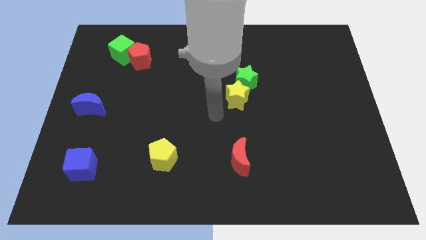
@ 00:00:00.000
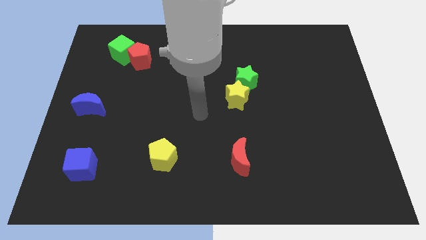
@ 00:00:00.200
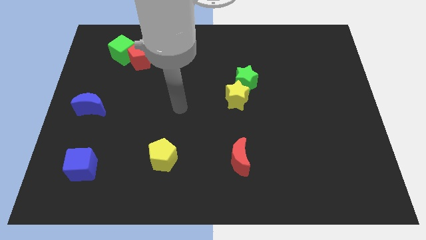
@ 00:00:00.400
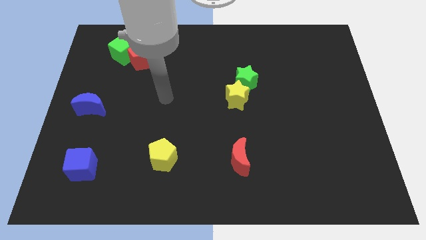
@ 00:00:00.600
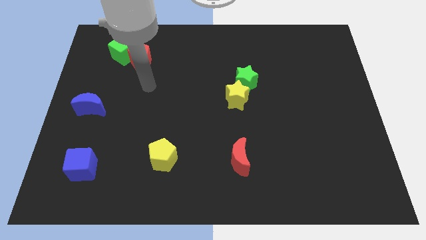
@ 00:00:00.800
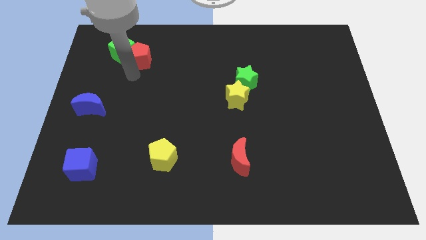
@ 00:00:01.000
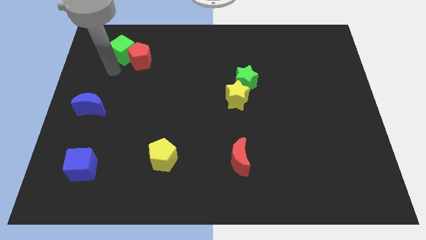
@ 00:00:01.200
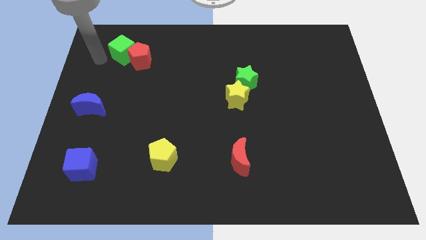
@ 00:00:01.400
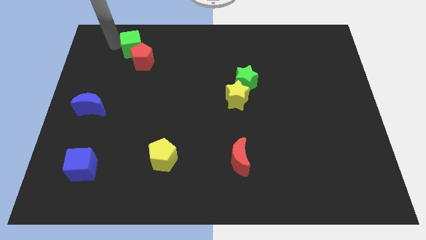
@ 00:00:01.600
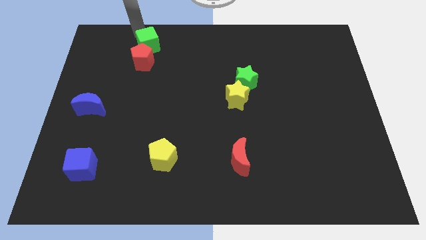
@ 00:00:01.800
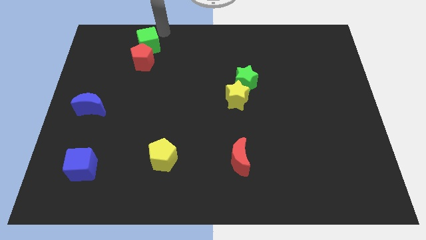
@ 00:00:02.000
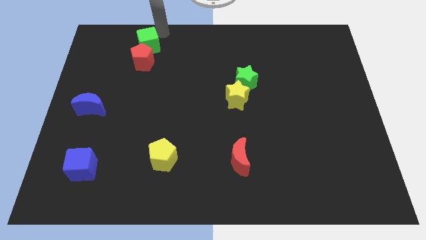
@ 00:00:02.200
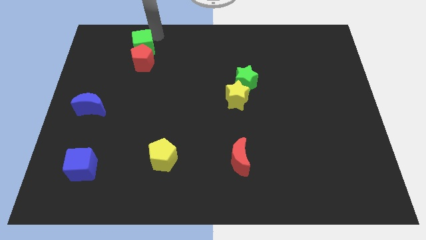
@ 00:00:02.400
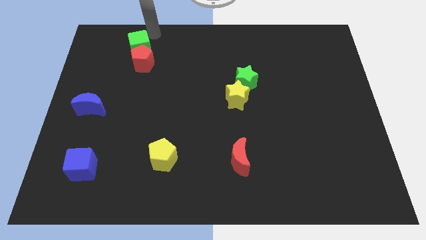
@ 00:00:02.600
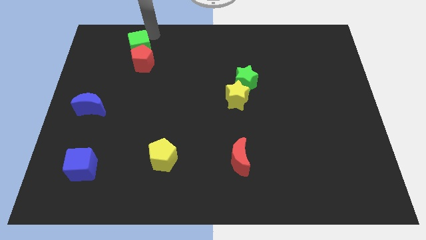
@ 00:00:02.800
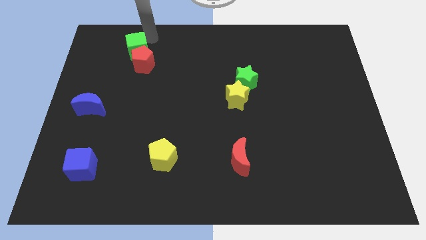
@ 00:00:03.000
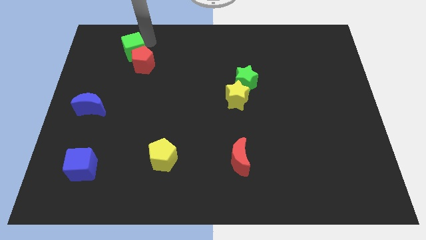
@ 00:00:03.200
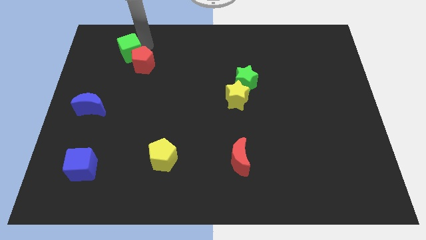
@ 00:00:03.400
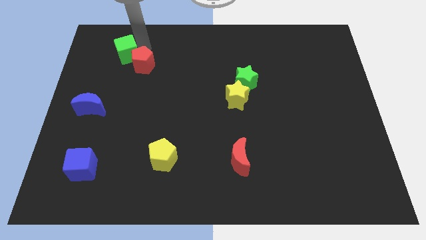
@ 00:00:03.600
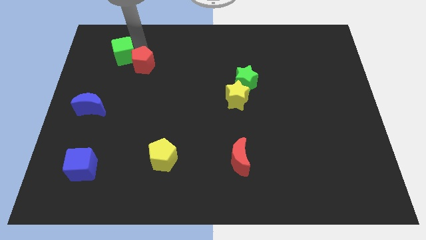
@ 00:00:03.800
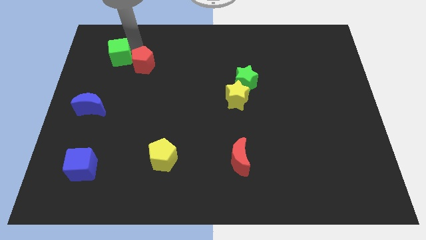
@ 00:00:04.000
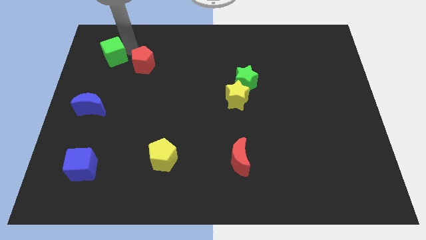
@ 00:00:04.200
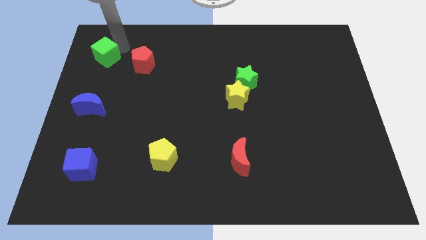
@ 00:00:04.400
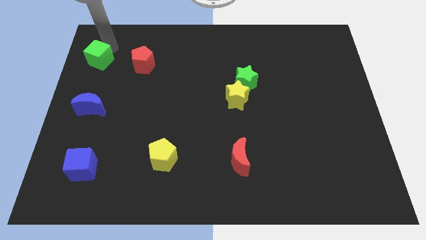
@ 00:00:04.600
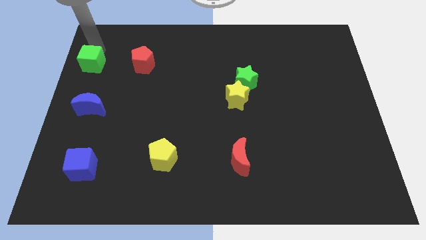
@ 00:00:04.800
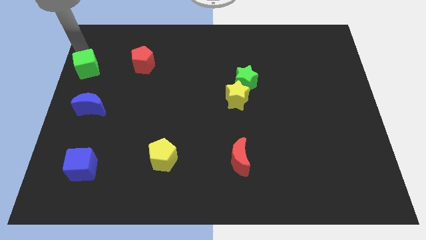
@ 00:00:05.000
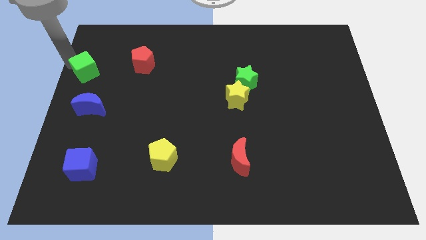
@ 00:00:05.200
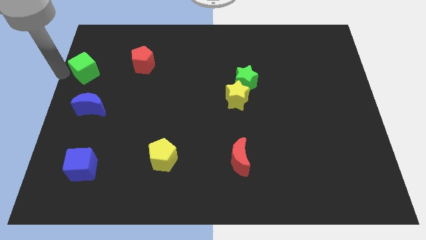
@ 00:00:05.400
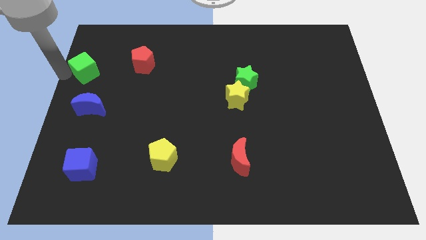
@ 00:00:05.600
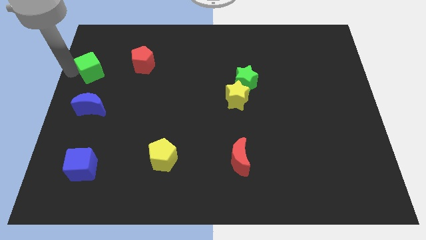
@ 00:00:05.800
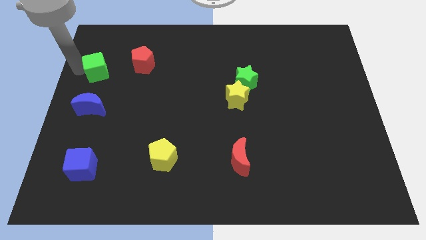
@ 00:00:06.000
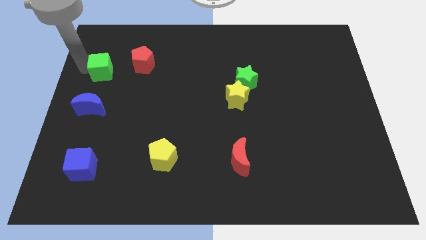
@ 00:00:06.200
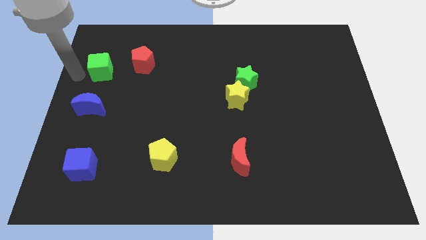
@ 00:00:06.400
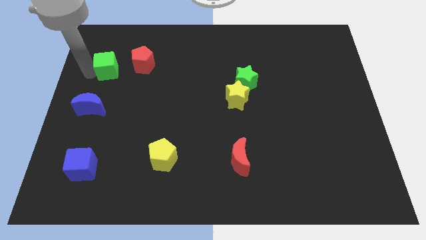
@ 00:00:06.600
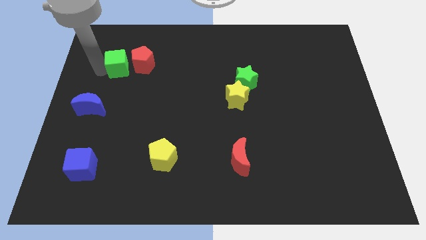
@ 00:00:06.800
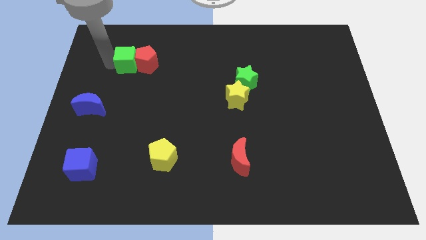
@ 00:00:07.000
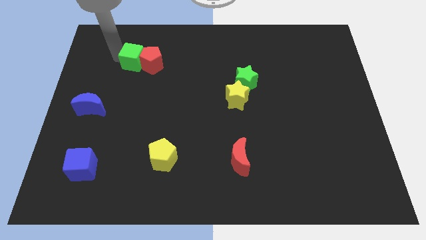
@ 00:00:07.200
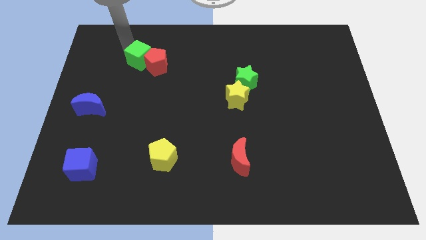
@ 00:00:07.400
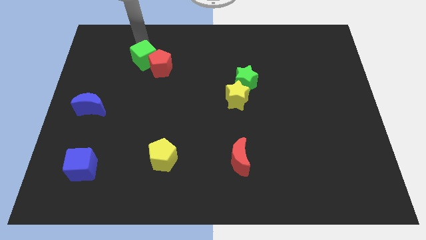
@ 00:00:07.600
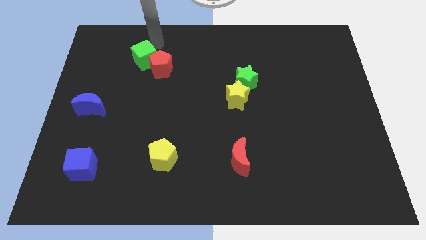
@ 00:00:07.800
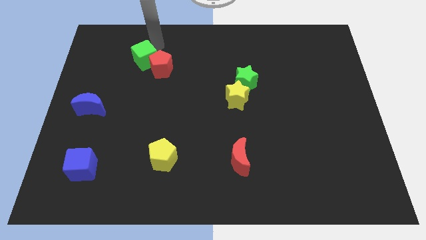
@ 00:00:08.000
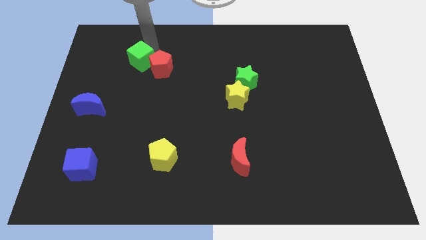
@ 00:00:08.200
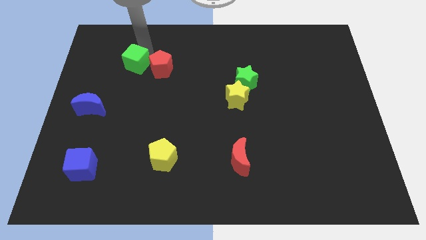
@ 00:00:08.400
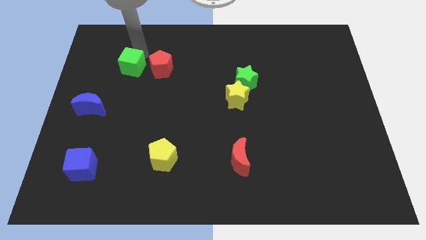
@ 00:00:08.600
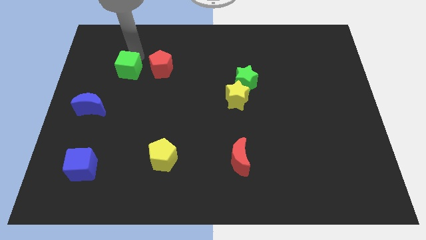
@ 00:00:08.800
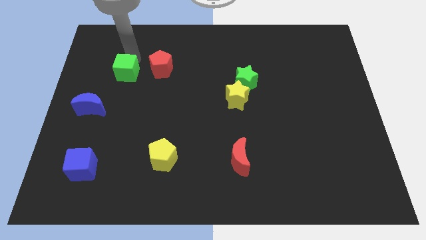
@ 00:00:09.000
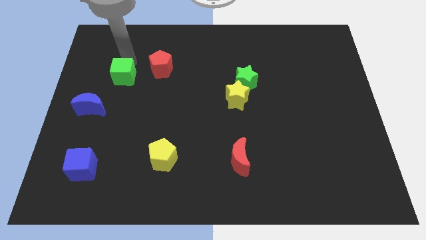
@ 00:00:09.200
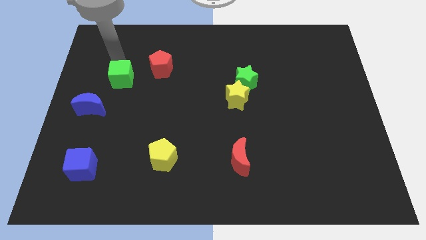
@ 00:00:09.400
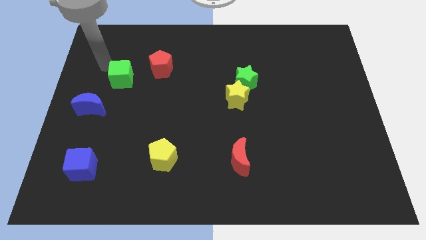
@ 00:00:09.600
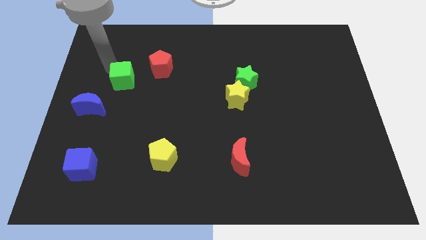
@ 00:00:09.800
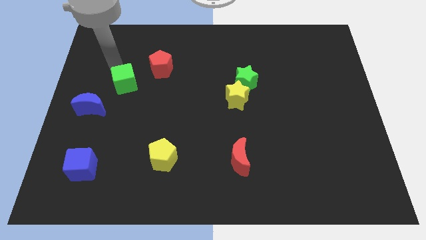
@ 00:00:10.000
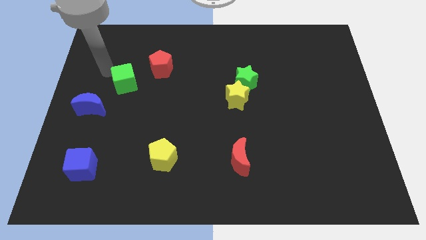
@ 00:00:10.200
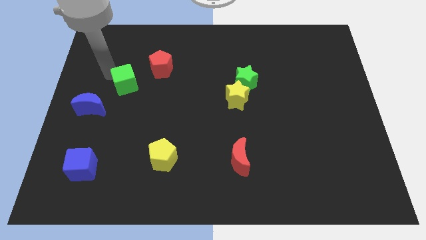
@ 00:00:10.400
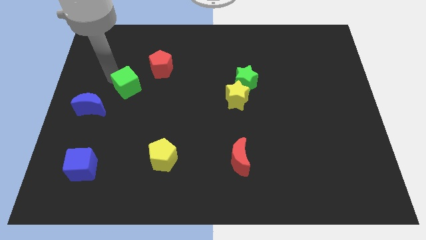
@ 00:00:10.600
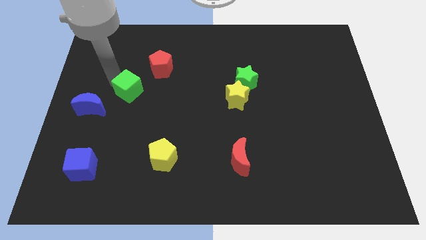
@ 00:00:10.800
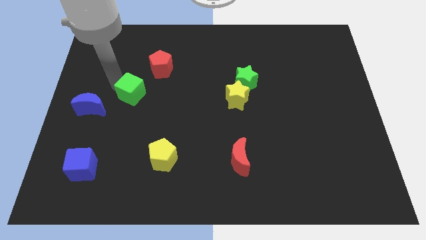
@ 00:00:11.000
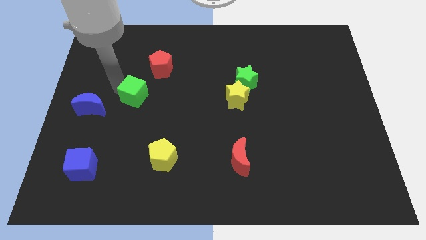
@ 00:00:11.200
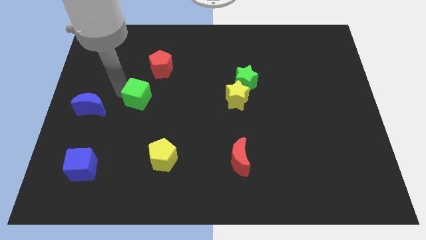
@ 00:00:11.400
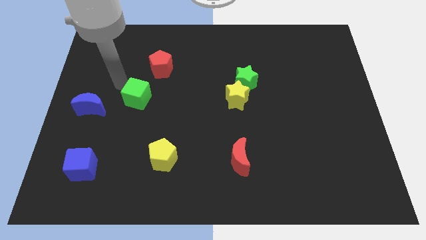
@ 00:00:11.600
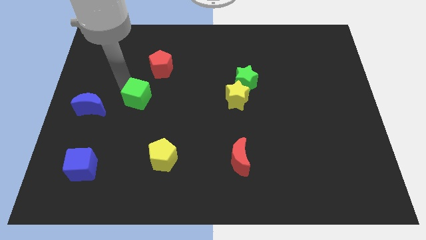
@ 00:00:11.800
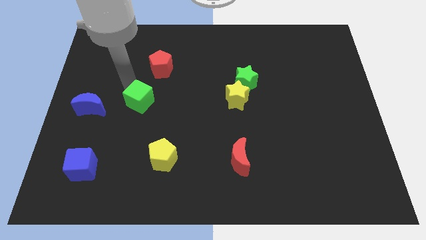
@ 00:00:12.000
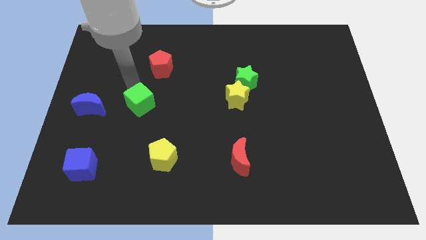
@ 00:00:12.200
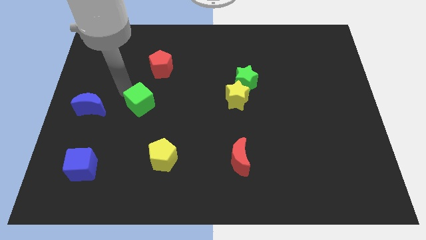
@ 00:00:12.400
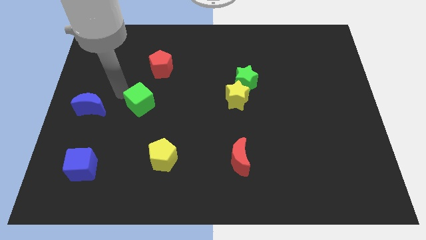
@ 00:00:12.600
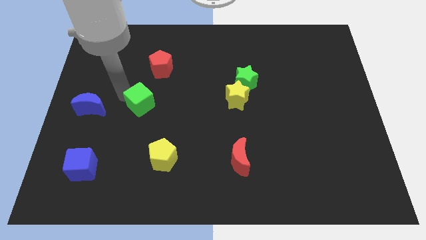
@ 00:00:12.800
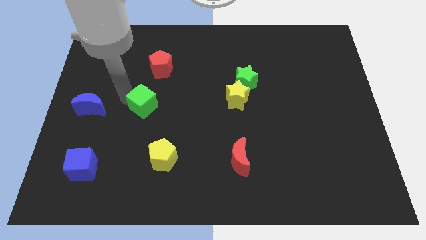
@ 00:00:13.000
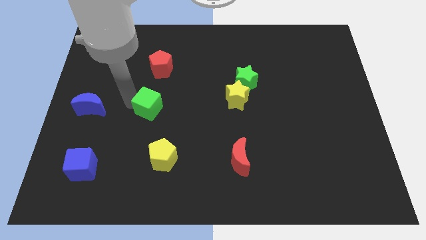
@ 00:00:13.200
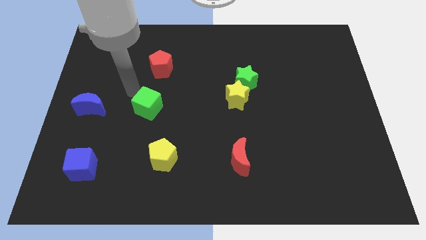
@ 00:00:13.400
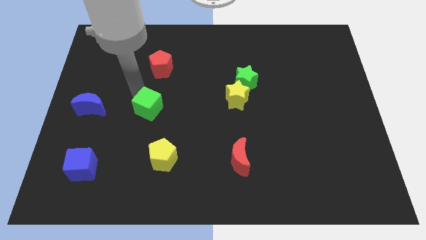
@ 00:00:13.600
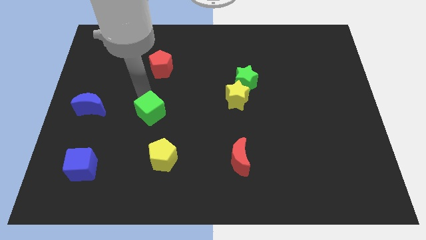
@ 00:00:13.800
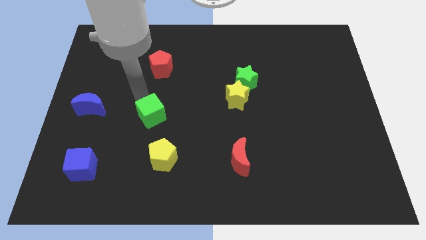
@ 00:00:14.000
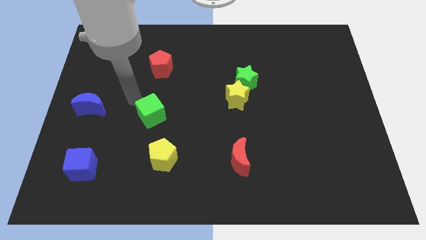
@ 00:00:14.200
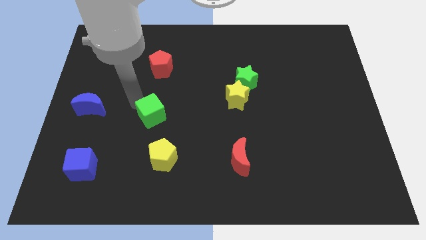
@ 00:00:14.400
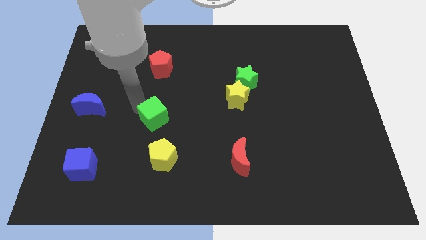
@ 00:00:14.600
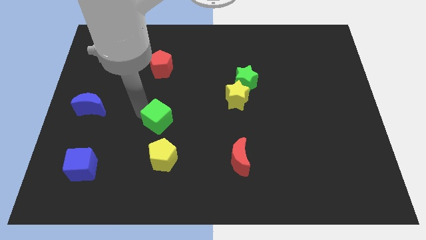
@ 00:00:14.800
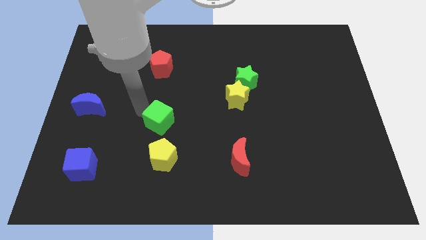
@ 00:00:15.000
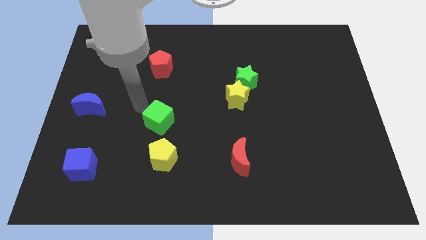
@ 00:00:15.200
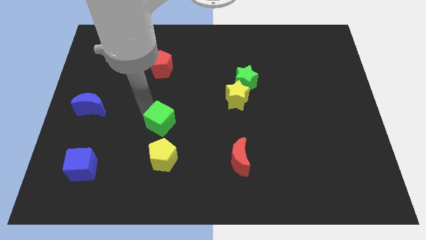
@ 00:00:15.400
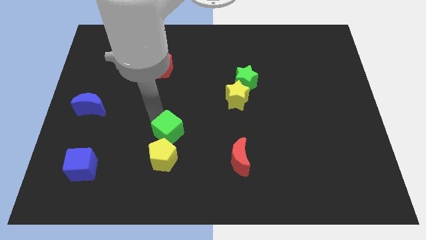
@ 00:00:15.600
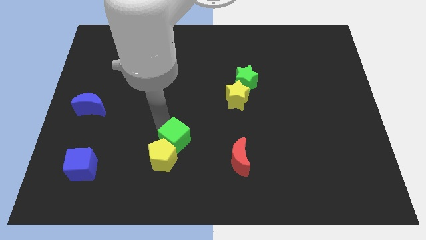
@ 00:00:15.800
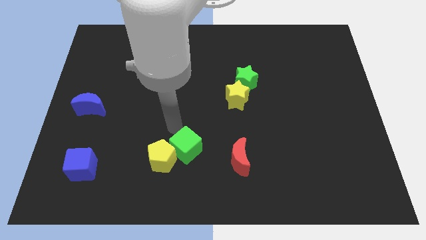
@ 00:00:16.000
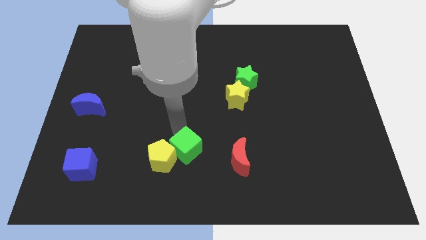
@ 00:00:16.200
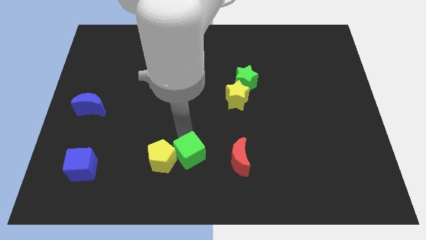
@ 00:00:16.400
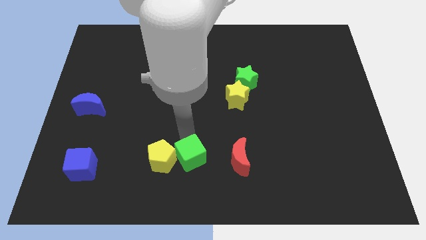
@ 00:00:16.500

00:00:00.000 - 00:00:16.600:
push the green cube to the bottom
